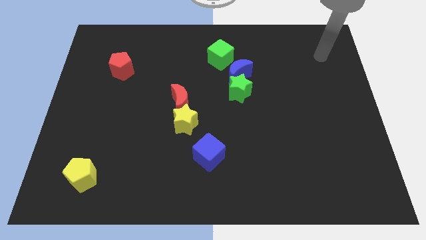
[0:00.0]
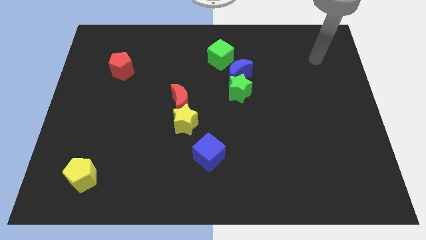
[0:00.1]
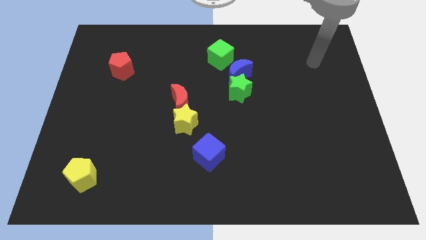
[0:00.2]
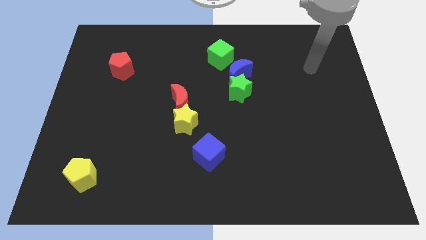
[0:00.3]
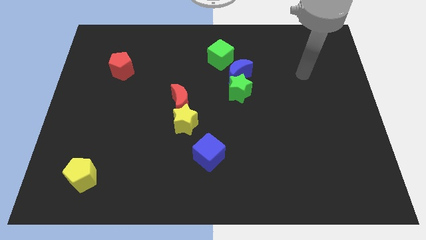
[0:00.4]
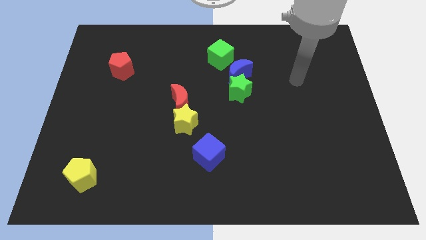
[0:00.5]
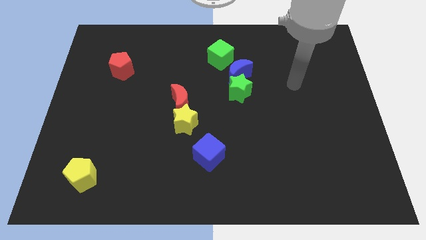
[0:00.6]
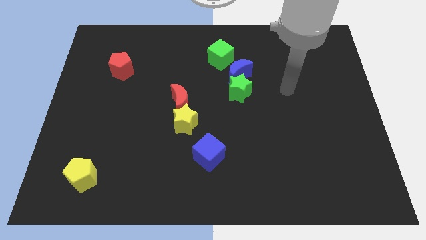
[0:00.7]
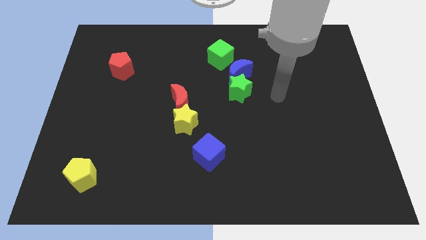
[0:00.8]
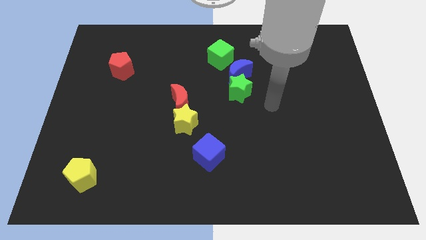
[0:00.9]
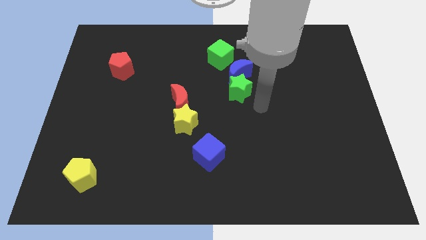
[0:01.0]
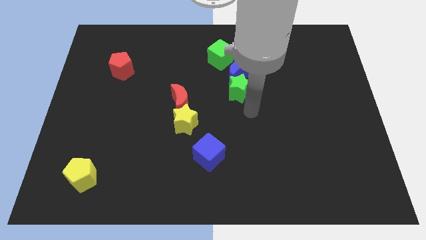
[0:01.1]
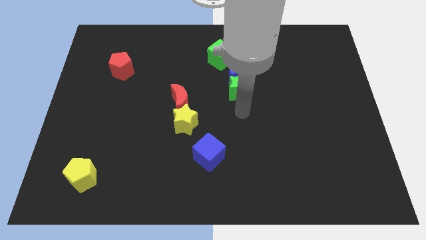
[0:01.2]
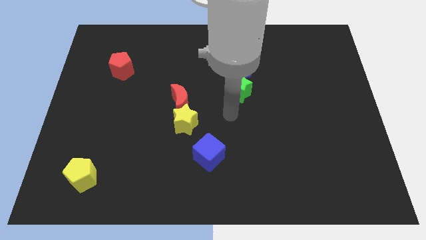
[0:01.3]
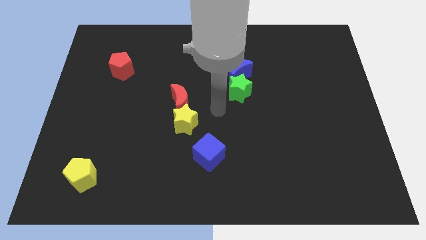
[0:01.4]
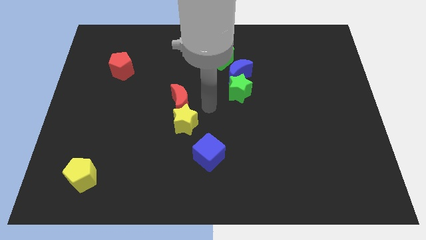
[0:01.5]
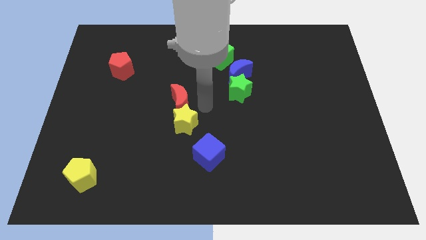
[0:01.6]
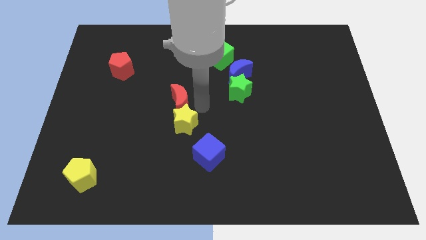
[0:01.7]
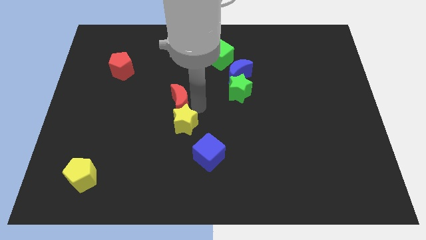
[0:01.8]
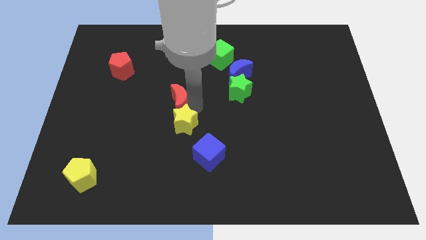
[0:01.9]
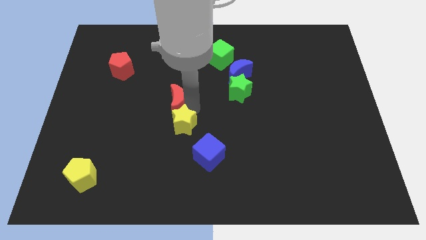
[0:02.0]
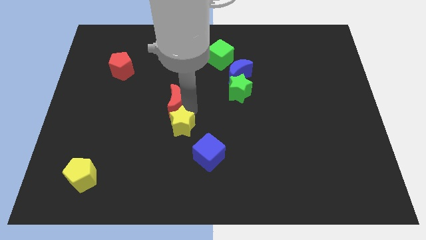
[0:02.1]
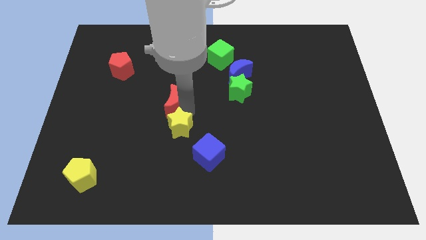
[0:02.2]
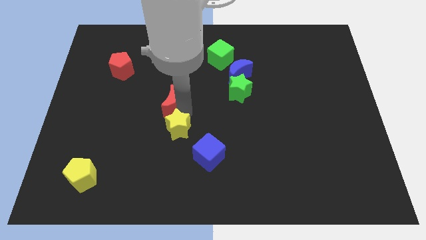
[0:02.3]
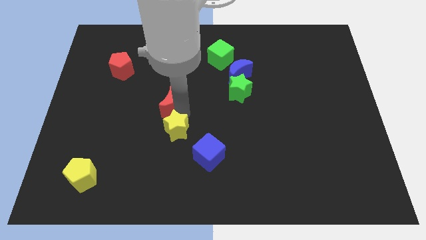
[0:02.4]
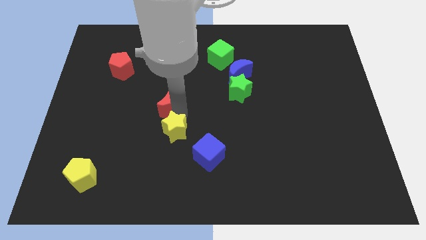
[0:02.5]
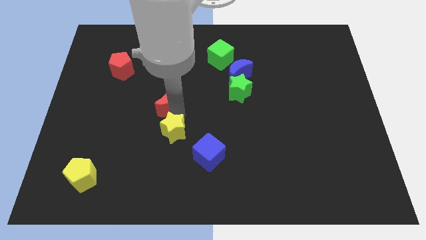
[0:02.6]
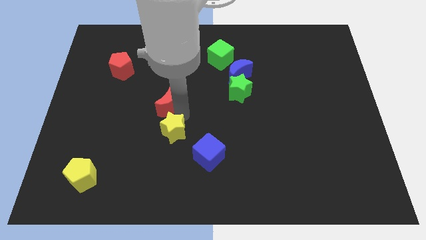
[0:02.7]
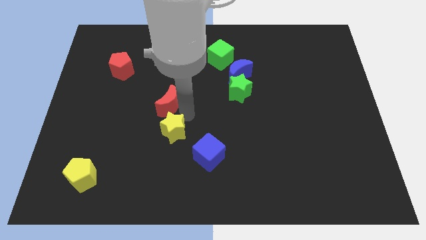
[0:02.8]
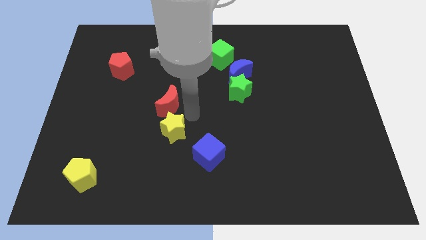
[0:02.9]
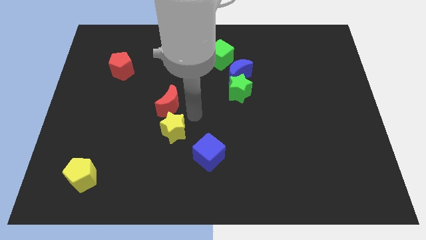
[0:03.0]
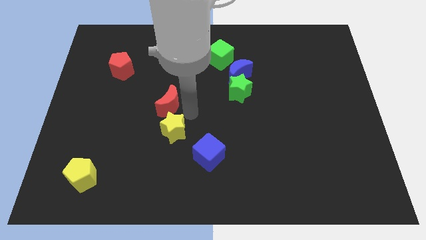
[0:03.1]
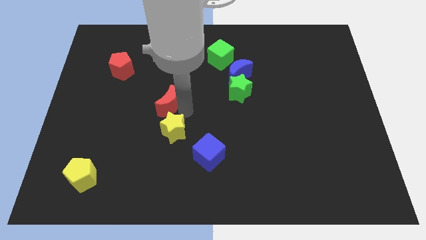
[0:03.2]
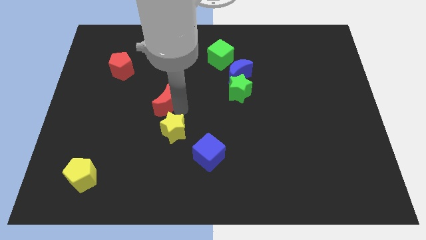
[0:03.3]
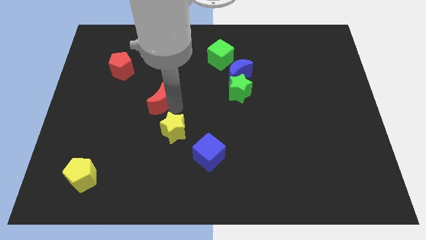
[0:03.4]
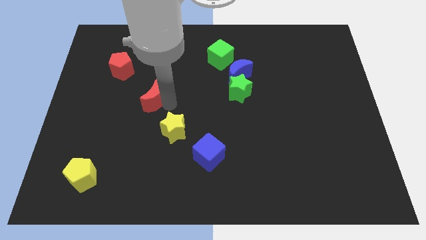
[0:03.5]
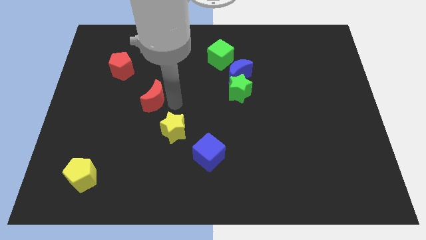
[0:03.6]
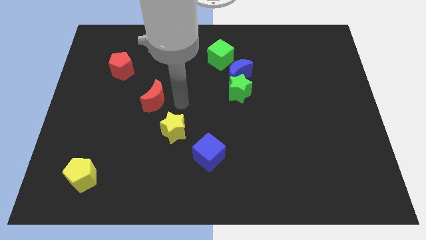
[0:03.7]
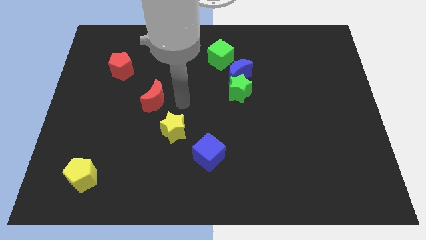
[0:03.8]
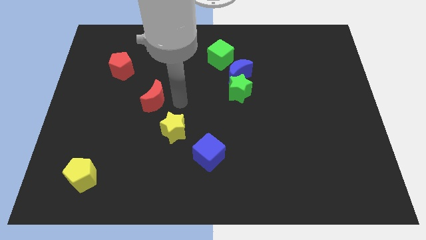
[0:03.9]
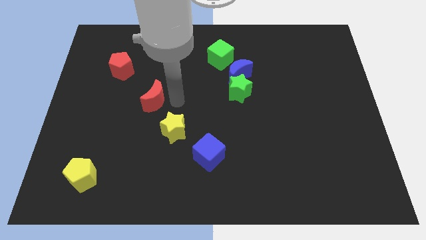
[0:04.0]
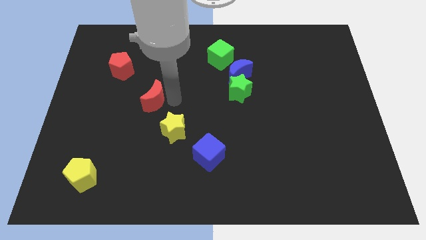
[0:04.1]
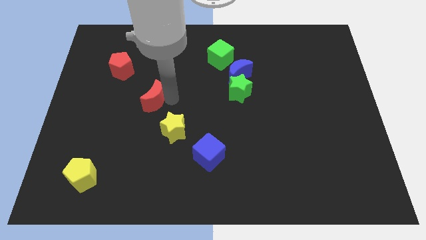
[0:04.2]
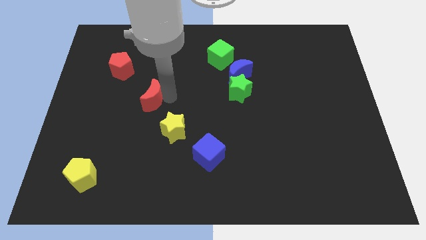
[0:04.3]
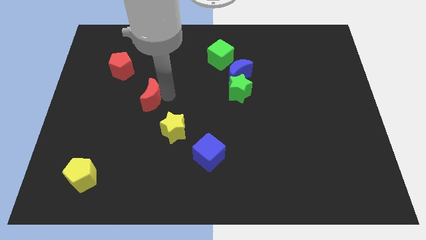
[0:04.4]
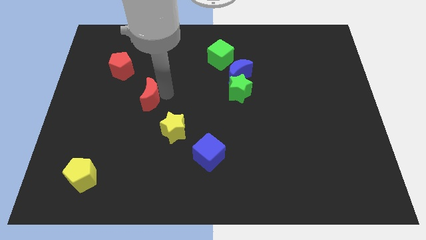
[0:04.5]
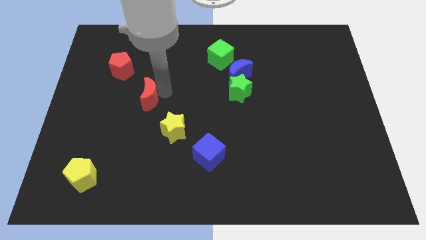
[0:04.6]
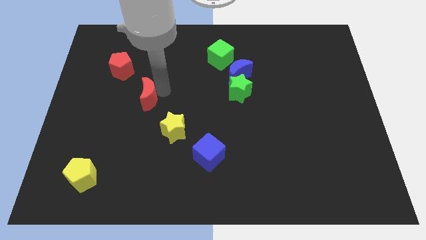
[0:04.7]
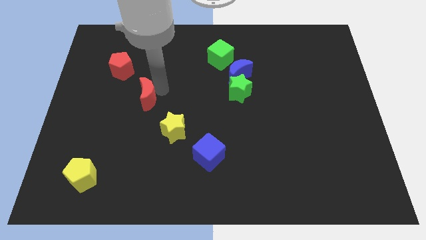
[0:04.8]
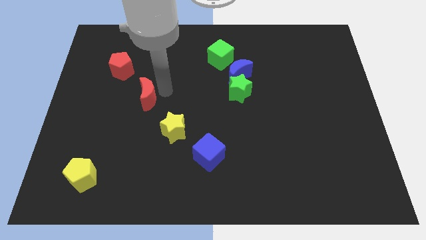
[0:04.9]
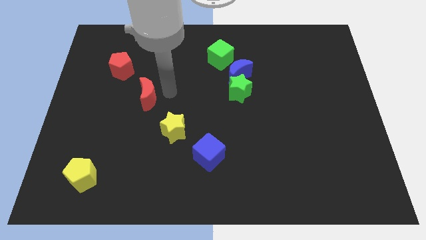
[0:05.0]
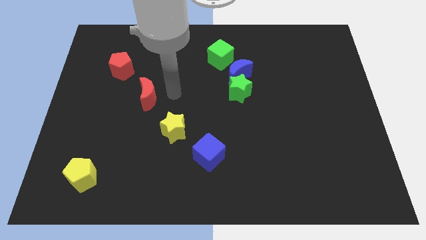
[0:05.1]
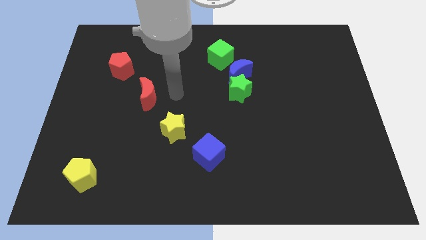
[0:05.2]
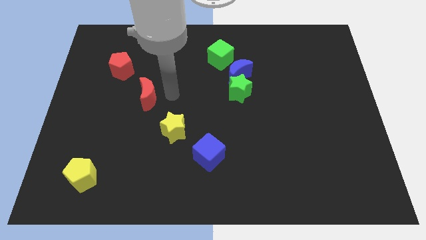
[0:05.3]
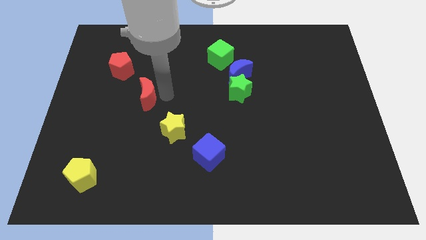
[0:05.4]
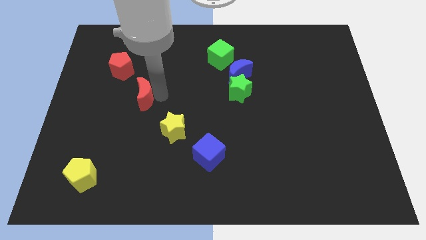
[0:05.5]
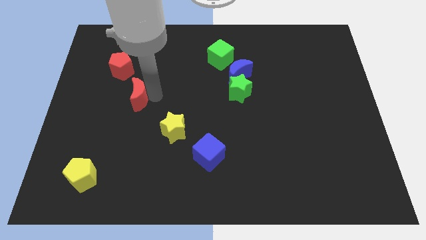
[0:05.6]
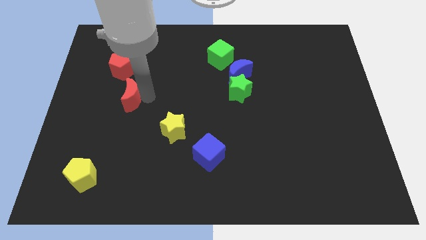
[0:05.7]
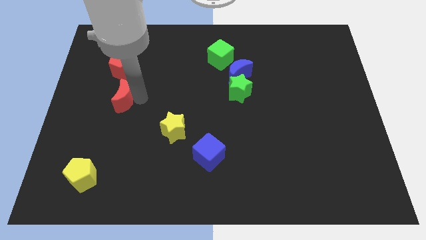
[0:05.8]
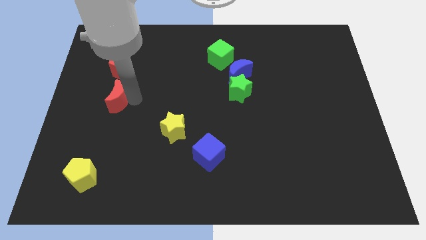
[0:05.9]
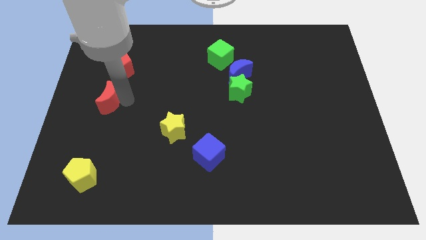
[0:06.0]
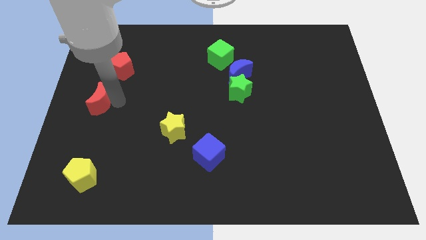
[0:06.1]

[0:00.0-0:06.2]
push the red moon to the left side

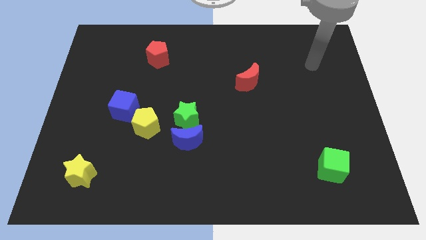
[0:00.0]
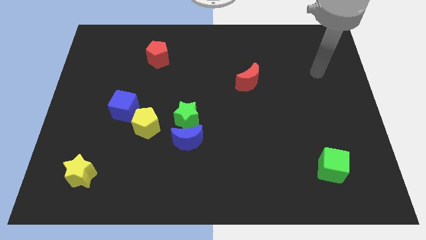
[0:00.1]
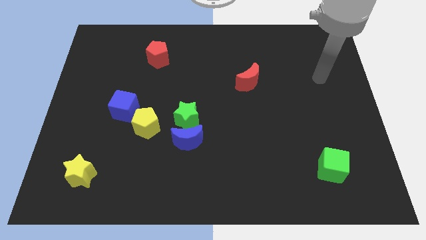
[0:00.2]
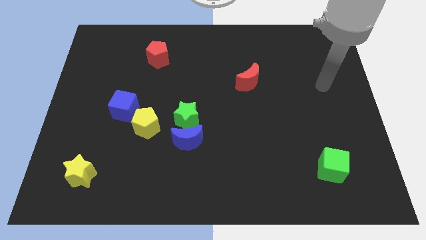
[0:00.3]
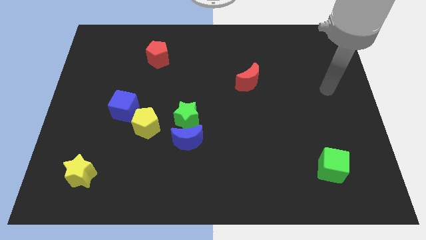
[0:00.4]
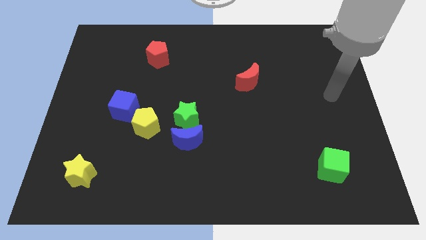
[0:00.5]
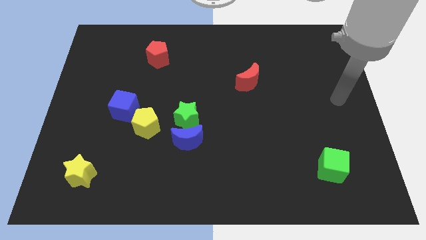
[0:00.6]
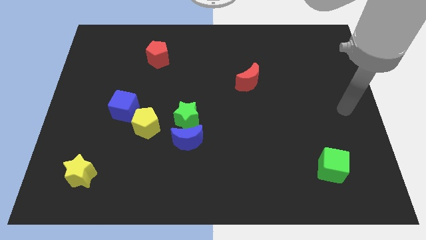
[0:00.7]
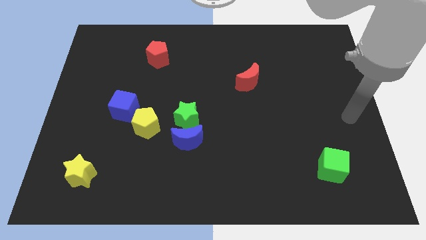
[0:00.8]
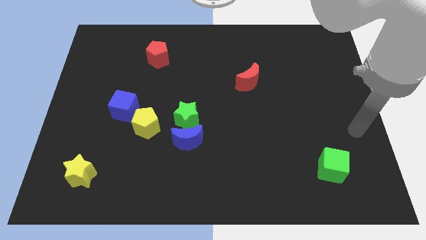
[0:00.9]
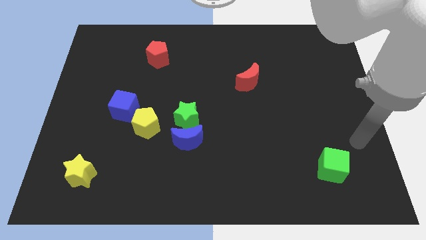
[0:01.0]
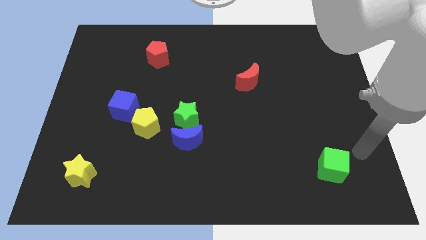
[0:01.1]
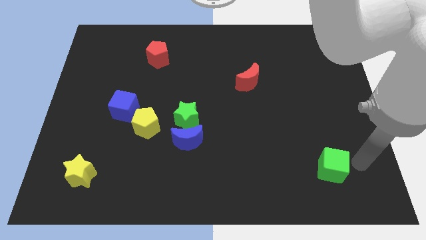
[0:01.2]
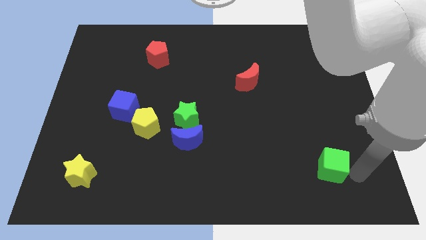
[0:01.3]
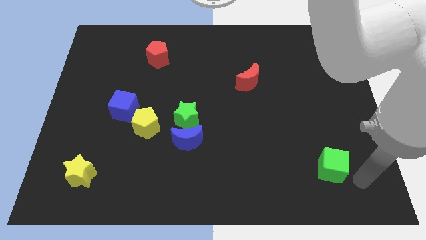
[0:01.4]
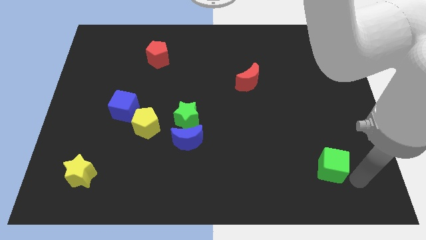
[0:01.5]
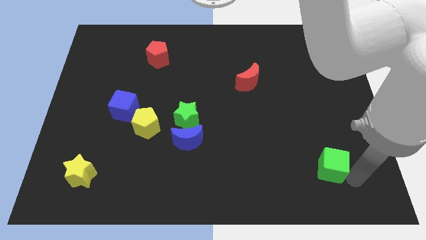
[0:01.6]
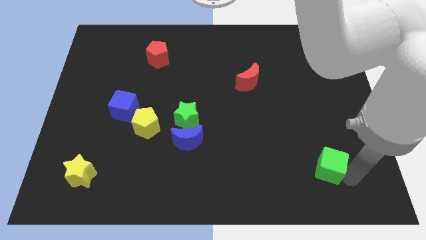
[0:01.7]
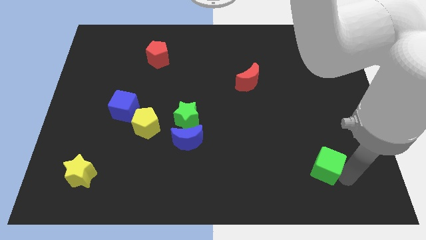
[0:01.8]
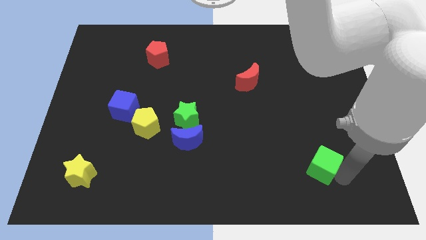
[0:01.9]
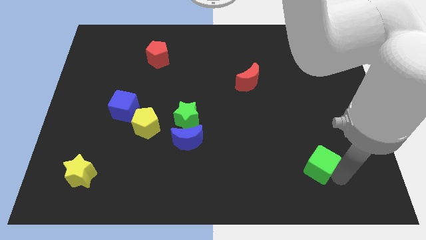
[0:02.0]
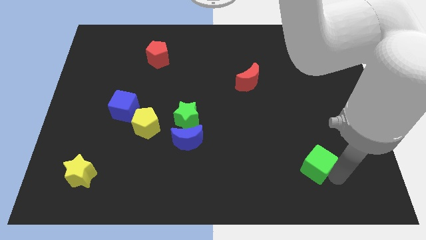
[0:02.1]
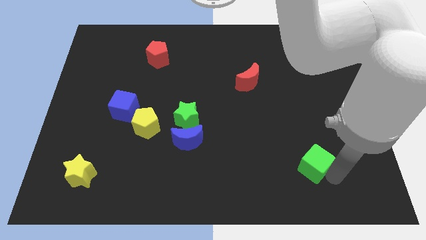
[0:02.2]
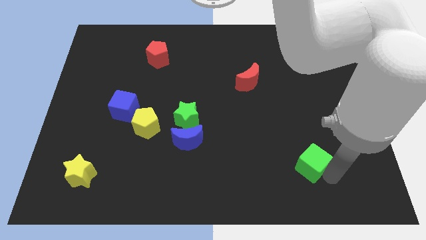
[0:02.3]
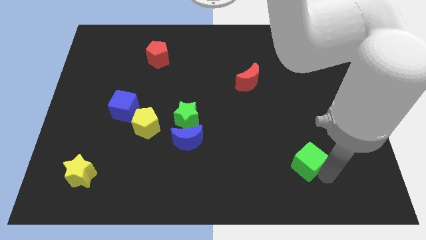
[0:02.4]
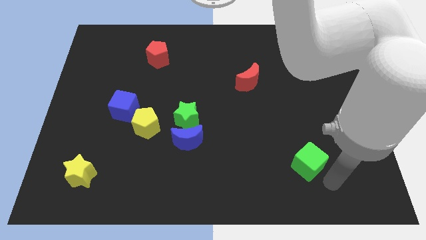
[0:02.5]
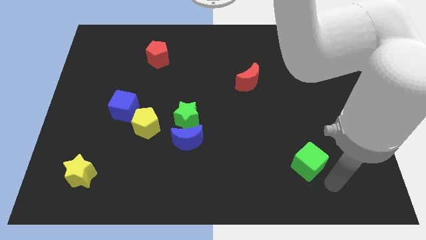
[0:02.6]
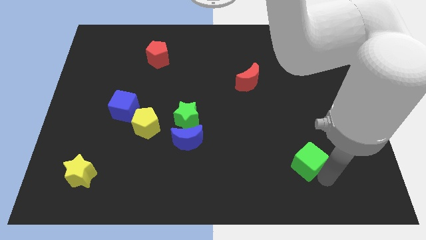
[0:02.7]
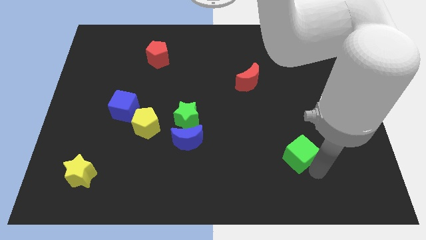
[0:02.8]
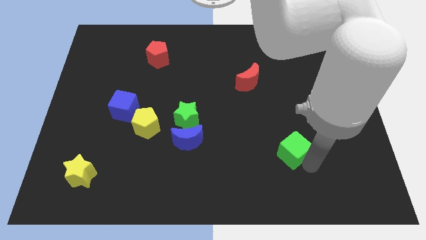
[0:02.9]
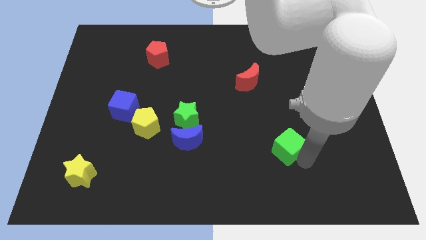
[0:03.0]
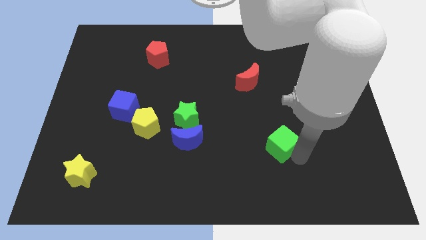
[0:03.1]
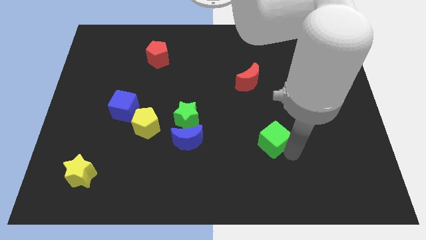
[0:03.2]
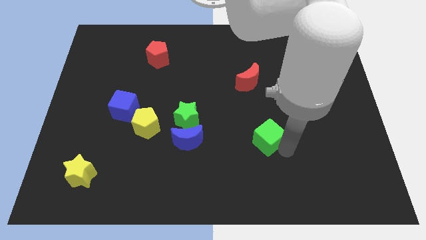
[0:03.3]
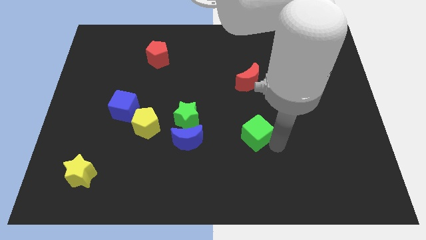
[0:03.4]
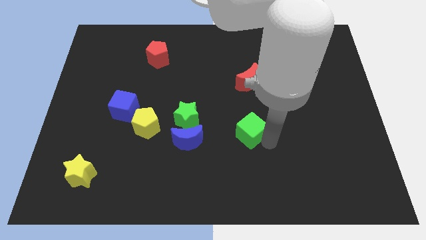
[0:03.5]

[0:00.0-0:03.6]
move the green cube to the middle of the board
